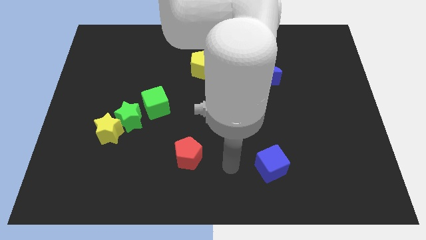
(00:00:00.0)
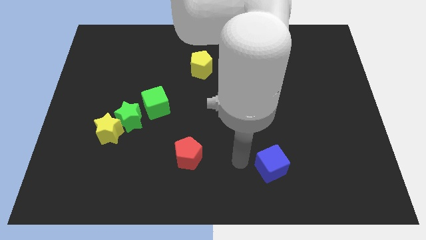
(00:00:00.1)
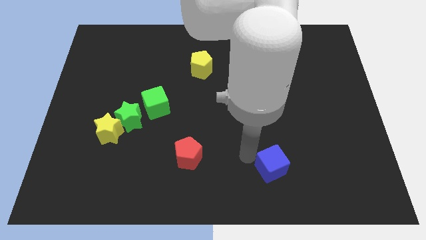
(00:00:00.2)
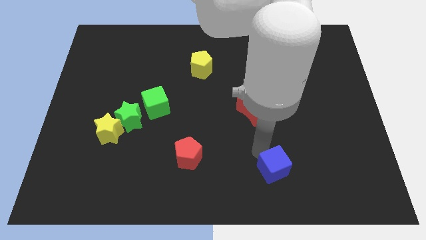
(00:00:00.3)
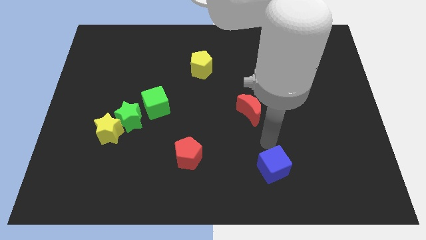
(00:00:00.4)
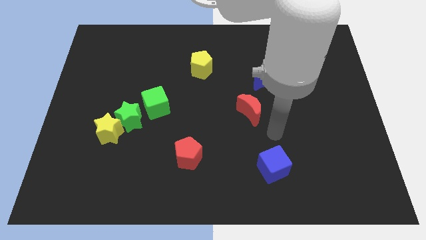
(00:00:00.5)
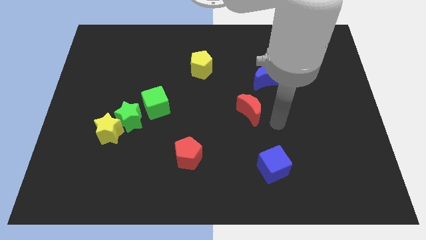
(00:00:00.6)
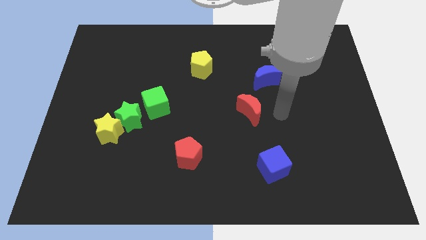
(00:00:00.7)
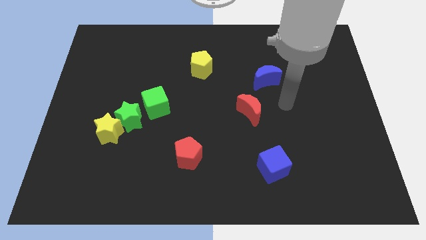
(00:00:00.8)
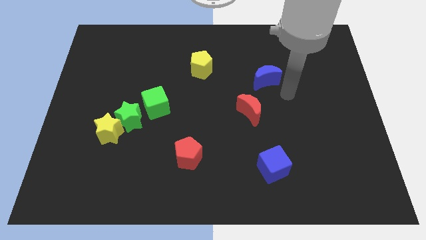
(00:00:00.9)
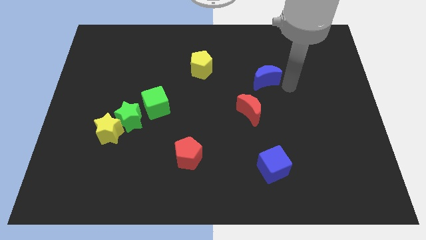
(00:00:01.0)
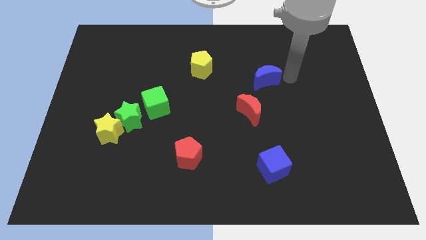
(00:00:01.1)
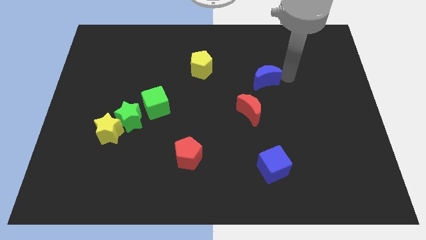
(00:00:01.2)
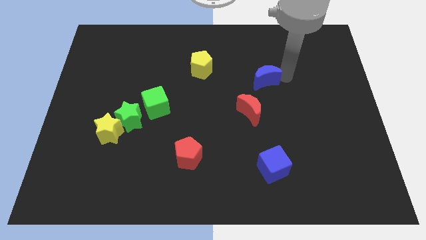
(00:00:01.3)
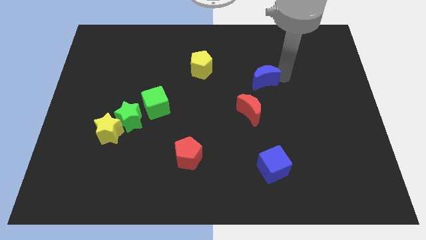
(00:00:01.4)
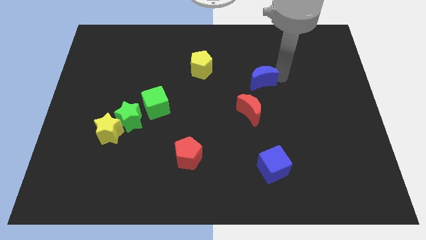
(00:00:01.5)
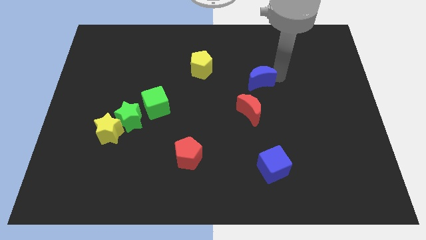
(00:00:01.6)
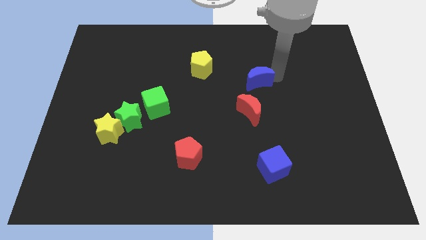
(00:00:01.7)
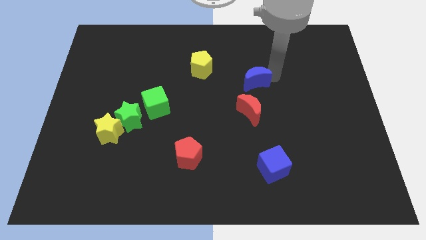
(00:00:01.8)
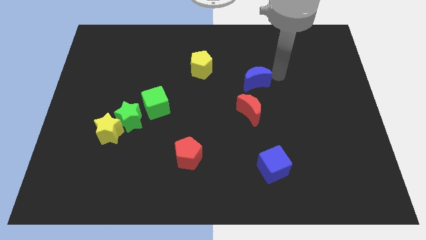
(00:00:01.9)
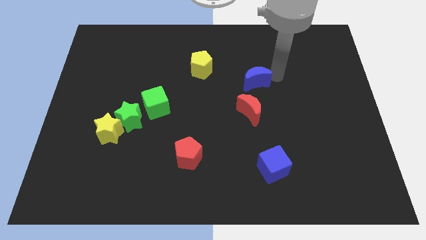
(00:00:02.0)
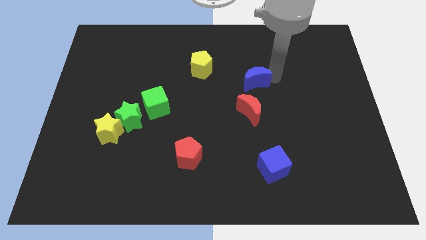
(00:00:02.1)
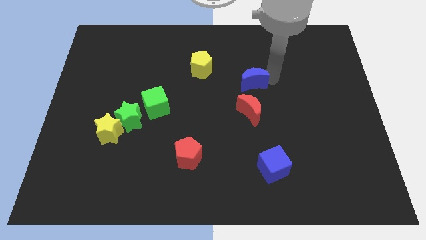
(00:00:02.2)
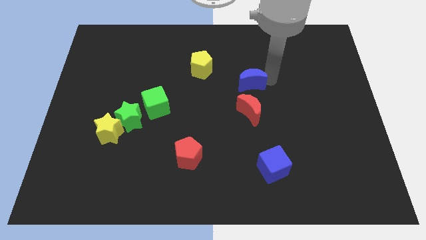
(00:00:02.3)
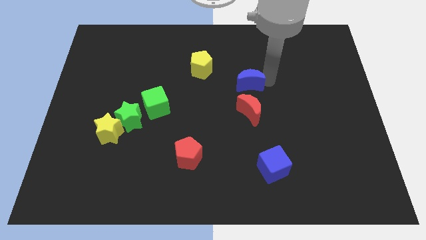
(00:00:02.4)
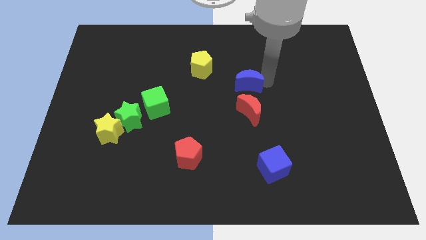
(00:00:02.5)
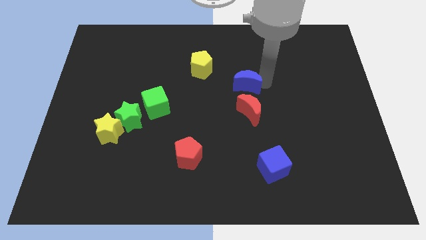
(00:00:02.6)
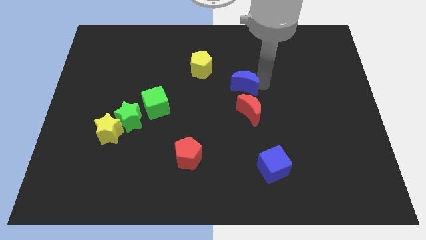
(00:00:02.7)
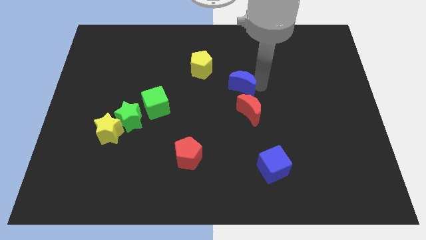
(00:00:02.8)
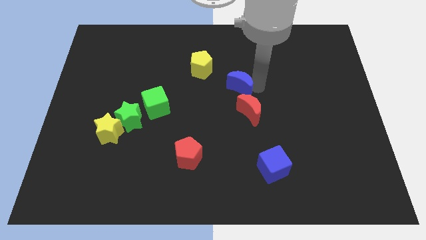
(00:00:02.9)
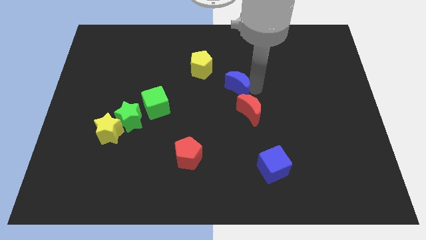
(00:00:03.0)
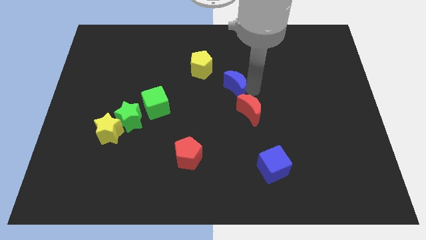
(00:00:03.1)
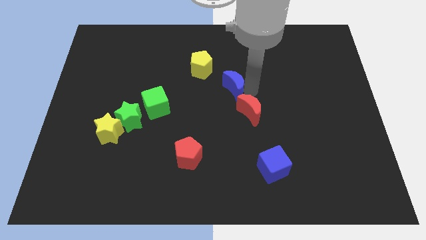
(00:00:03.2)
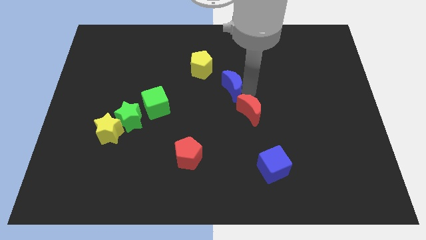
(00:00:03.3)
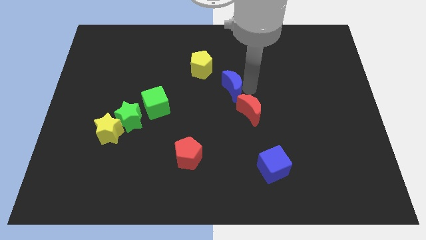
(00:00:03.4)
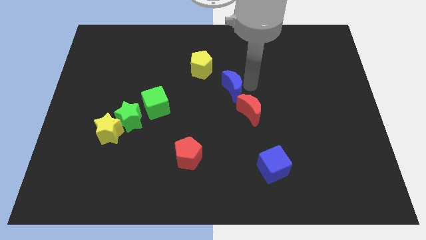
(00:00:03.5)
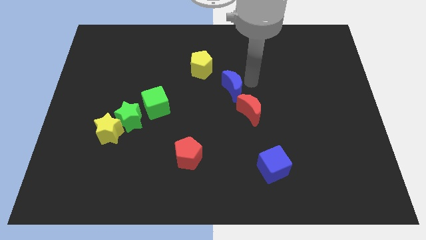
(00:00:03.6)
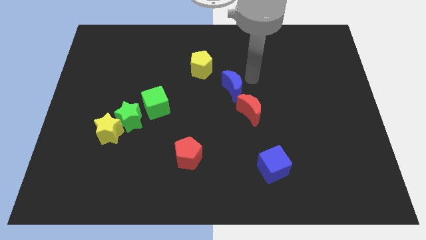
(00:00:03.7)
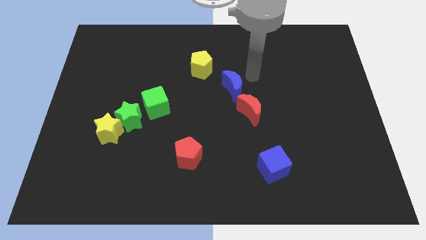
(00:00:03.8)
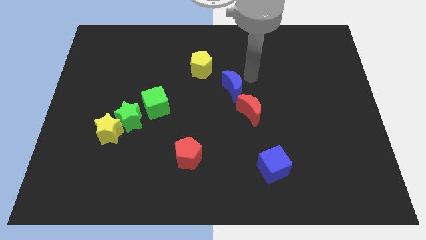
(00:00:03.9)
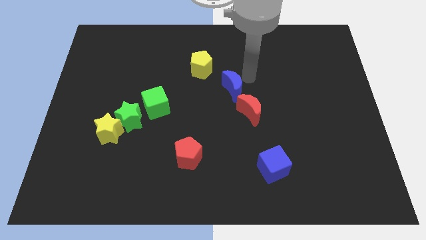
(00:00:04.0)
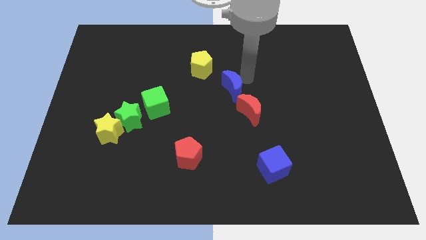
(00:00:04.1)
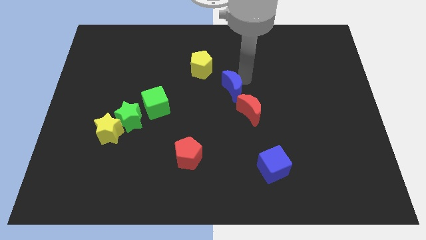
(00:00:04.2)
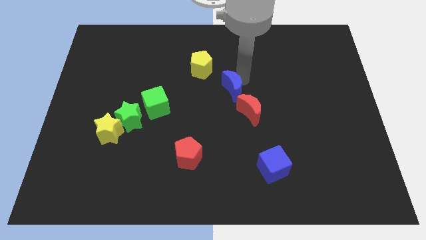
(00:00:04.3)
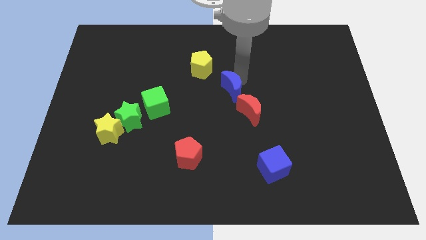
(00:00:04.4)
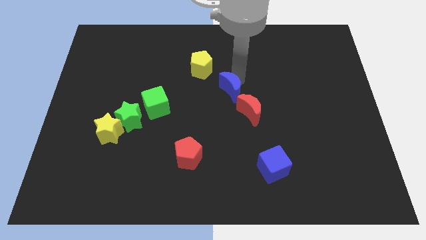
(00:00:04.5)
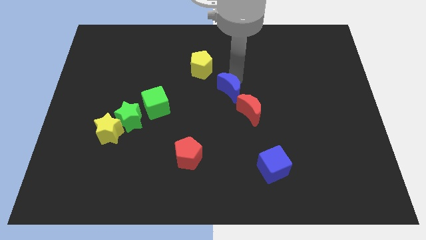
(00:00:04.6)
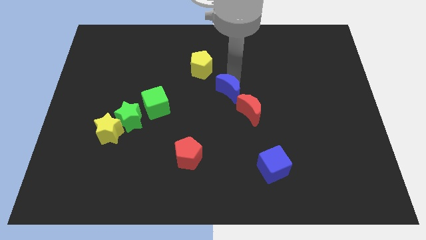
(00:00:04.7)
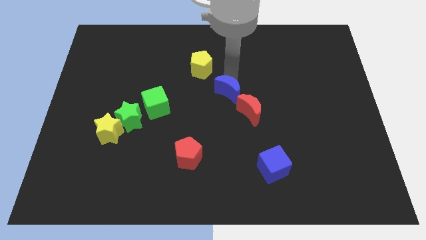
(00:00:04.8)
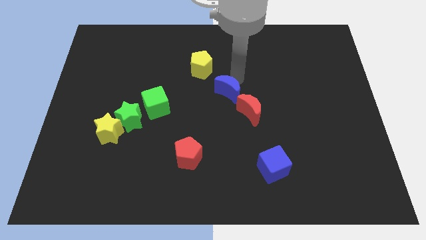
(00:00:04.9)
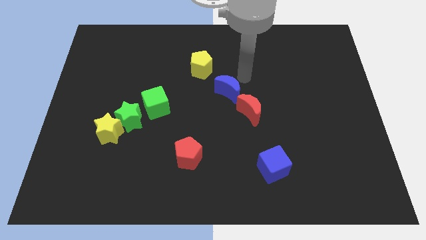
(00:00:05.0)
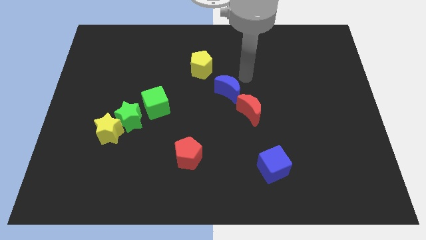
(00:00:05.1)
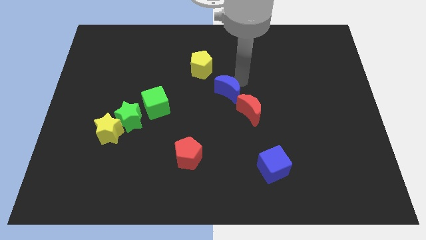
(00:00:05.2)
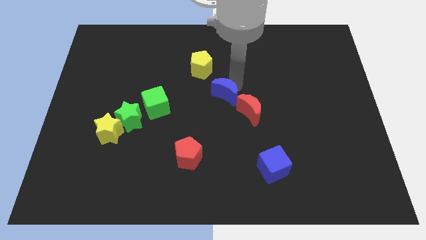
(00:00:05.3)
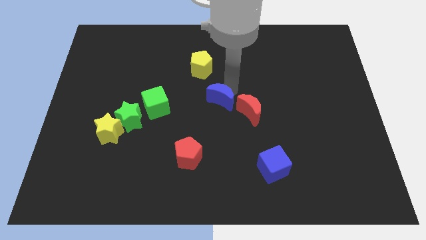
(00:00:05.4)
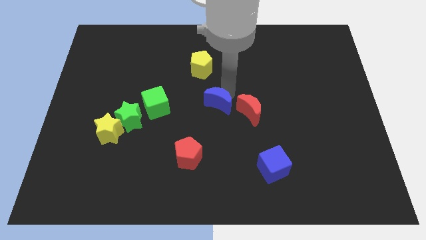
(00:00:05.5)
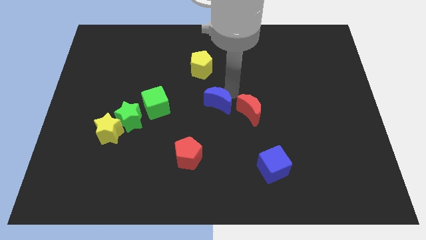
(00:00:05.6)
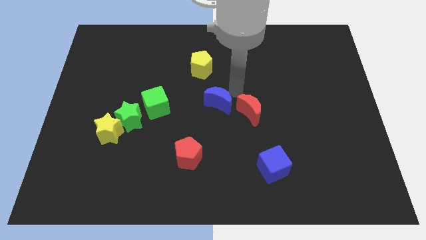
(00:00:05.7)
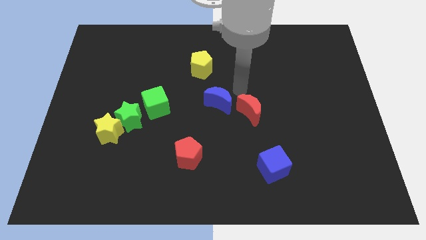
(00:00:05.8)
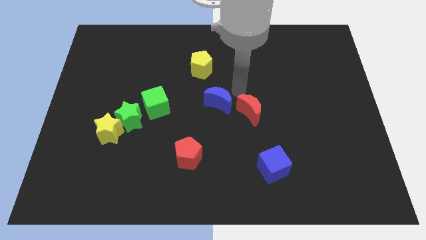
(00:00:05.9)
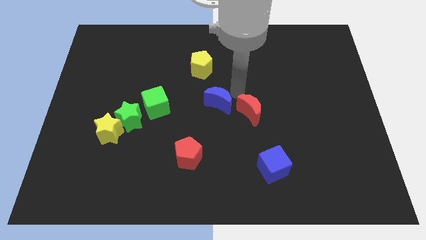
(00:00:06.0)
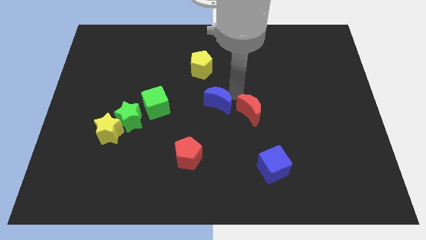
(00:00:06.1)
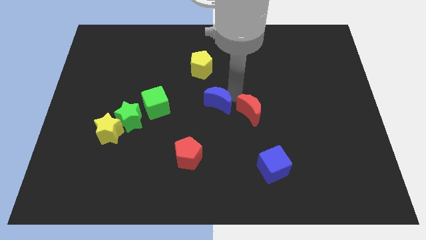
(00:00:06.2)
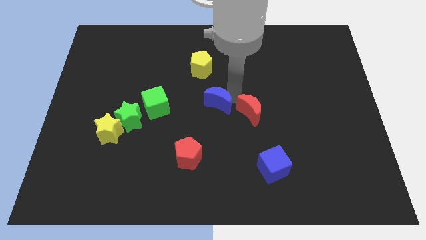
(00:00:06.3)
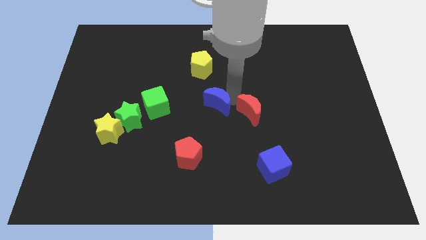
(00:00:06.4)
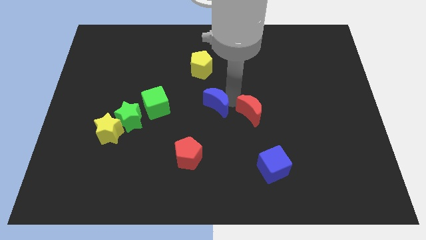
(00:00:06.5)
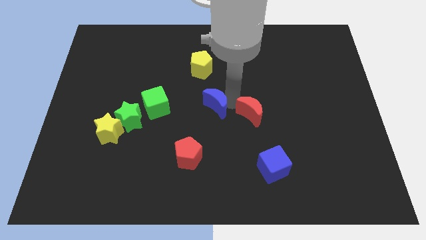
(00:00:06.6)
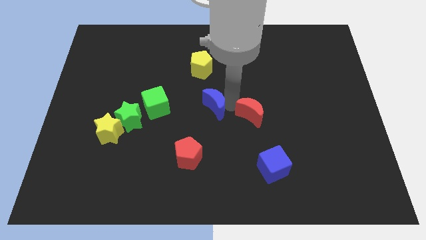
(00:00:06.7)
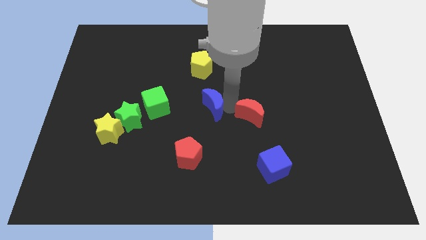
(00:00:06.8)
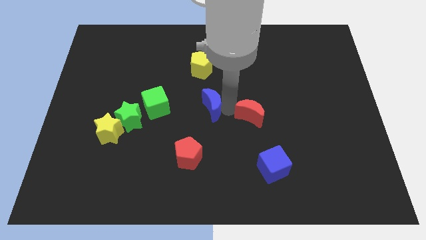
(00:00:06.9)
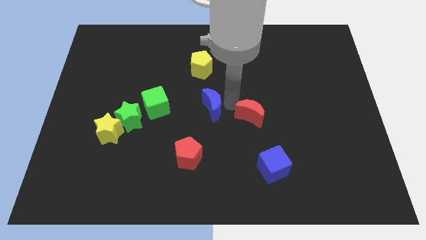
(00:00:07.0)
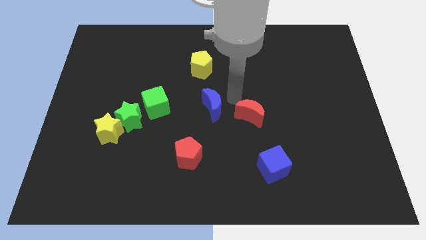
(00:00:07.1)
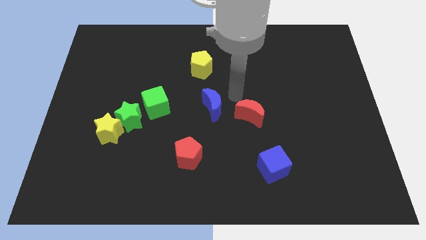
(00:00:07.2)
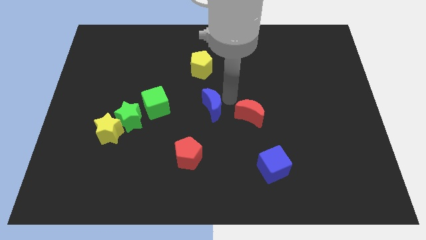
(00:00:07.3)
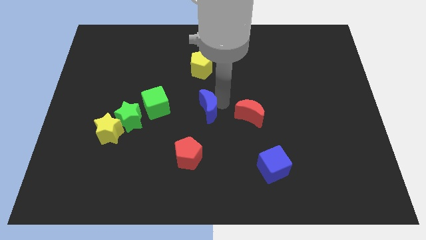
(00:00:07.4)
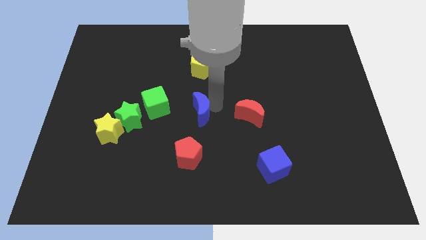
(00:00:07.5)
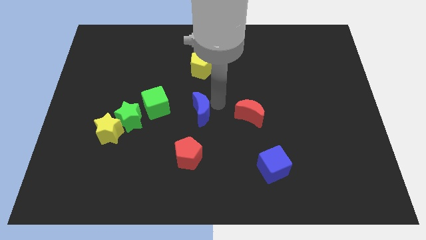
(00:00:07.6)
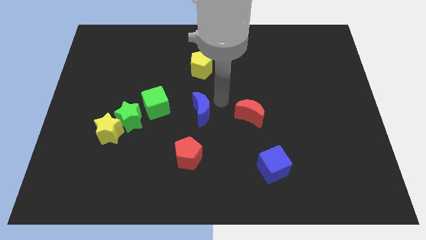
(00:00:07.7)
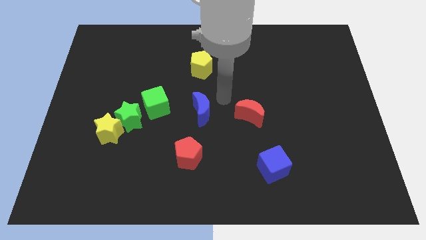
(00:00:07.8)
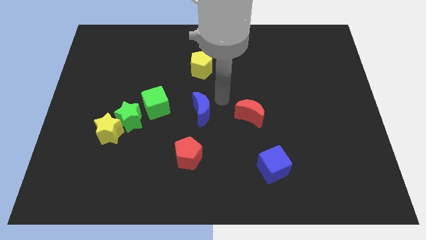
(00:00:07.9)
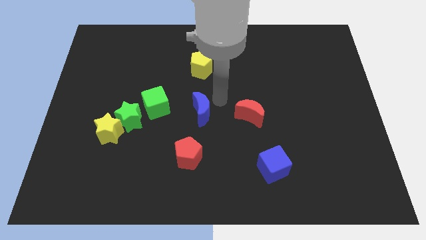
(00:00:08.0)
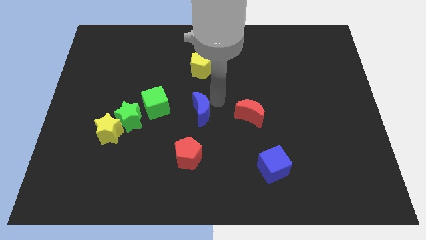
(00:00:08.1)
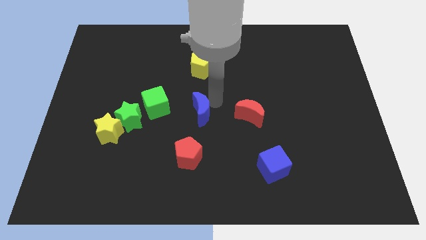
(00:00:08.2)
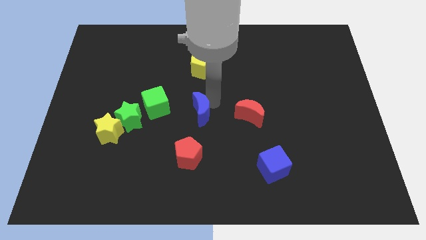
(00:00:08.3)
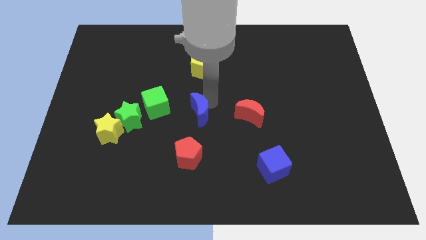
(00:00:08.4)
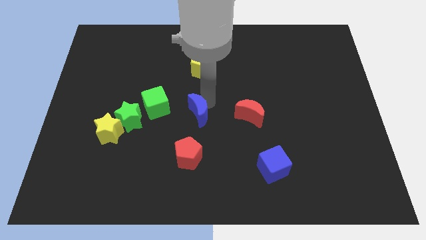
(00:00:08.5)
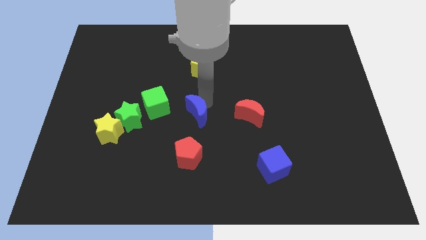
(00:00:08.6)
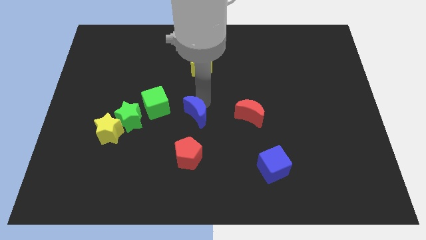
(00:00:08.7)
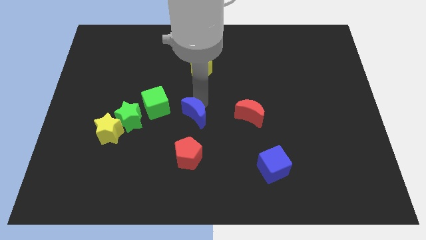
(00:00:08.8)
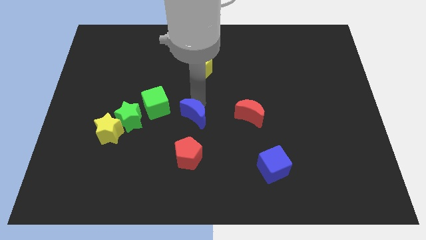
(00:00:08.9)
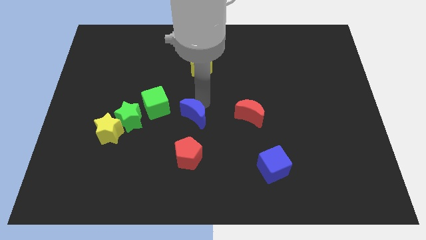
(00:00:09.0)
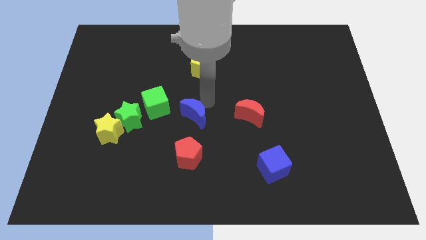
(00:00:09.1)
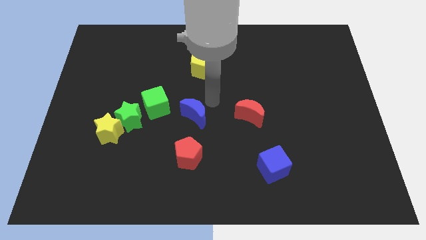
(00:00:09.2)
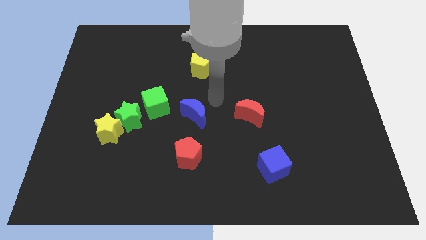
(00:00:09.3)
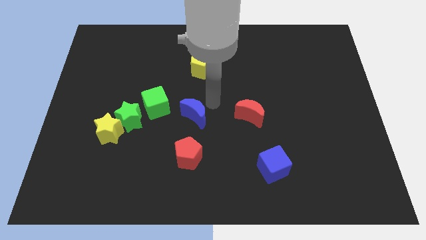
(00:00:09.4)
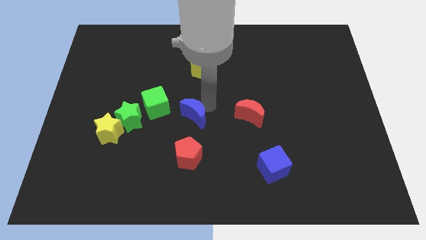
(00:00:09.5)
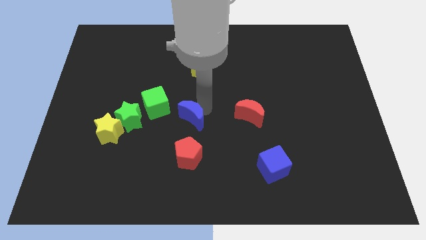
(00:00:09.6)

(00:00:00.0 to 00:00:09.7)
move the blue moon downwards and left diagonally
